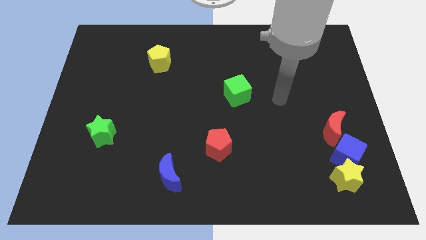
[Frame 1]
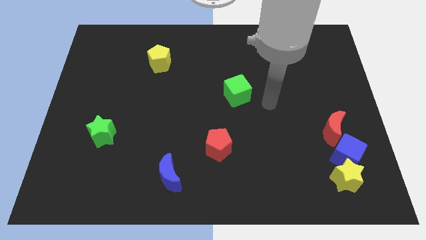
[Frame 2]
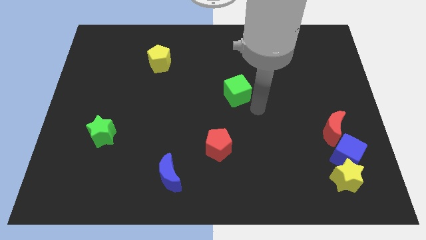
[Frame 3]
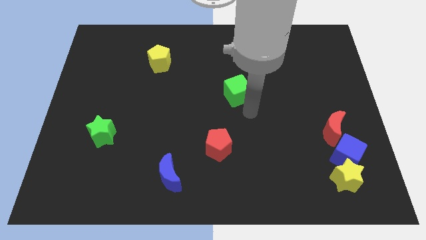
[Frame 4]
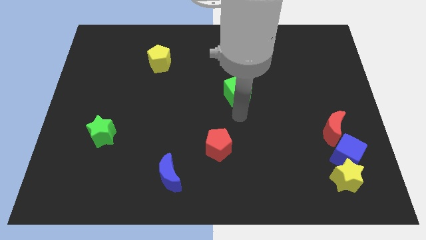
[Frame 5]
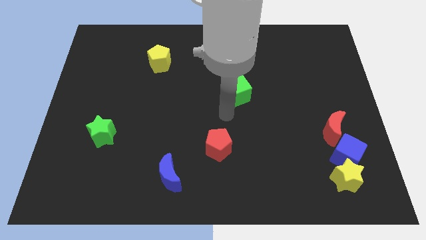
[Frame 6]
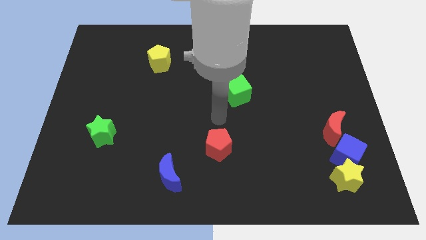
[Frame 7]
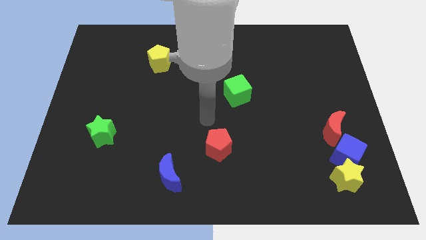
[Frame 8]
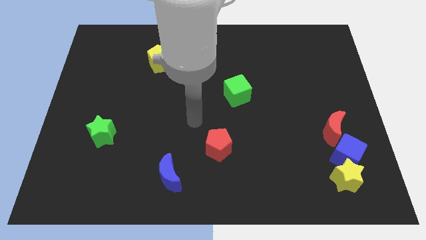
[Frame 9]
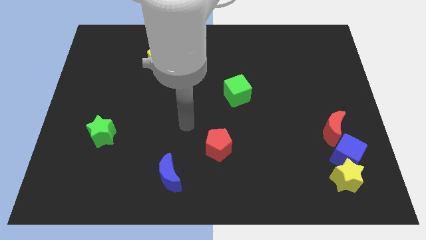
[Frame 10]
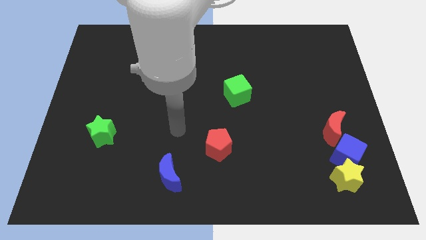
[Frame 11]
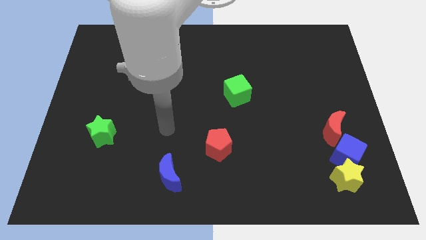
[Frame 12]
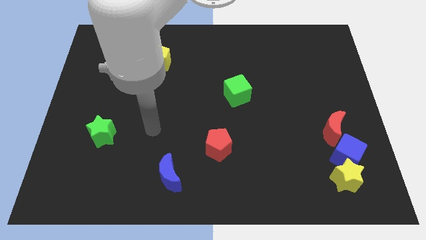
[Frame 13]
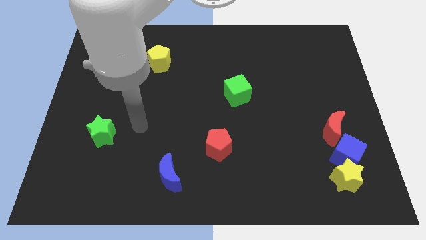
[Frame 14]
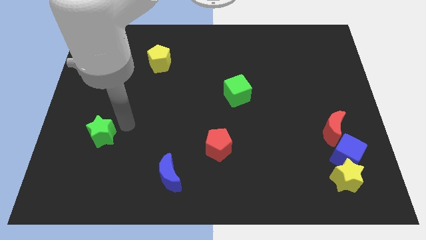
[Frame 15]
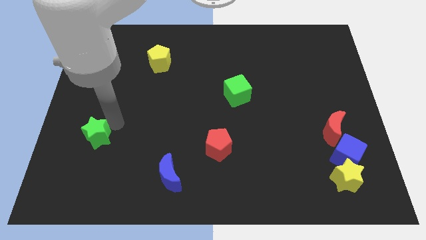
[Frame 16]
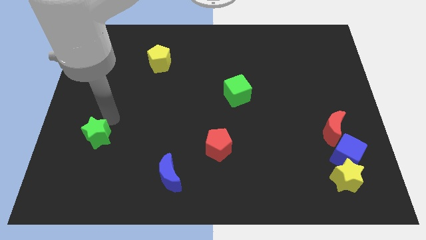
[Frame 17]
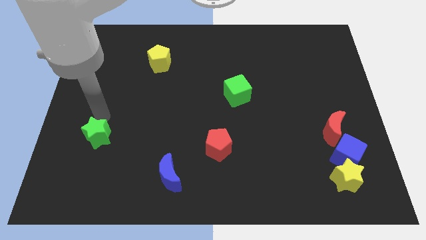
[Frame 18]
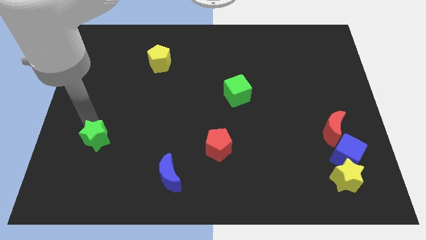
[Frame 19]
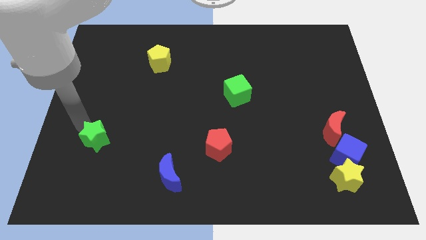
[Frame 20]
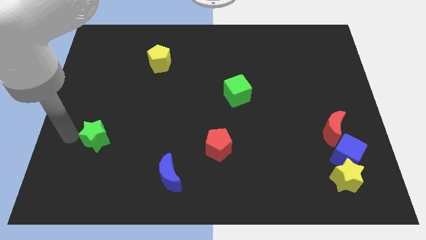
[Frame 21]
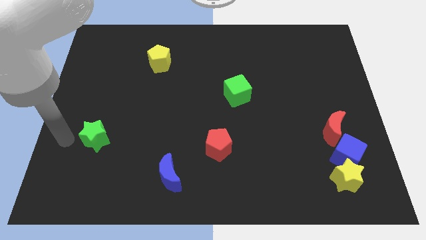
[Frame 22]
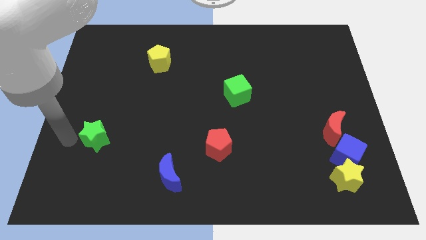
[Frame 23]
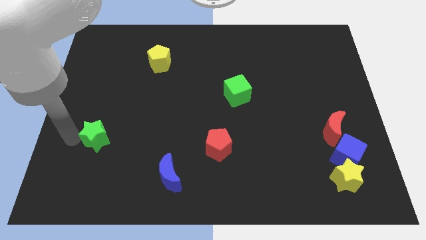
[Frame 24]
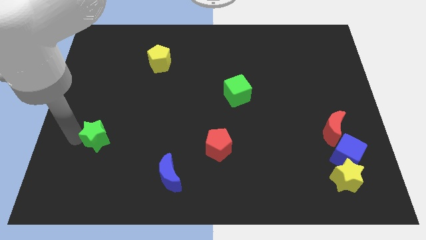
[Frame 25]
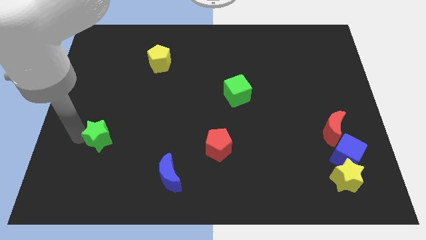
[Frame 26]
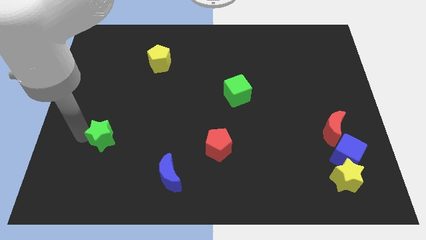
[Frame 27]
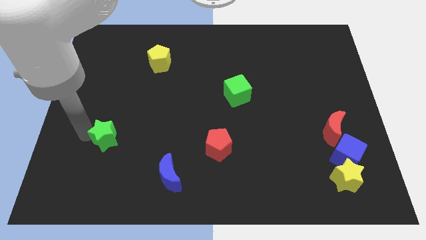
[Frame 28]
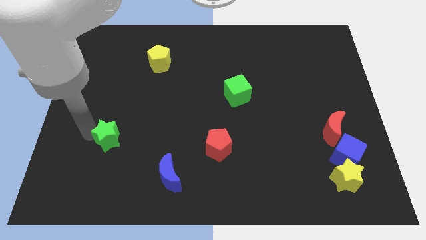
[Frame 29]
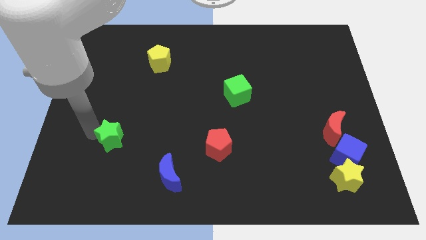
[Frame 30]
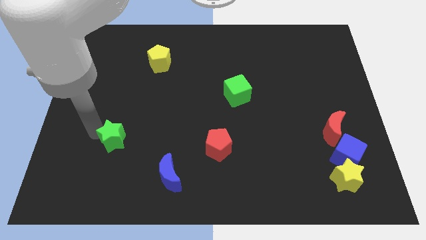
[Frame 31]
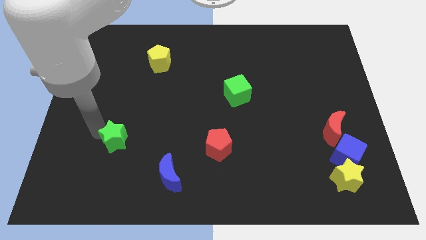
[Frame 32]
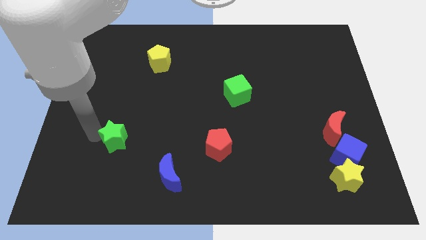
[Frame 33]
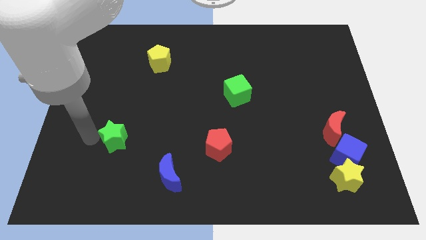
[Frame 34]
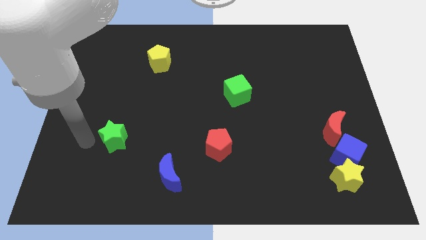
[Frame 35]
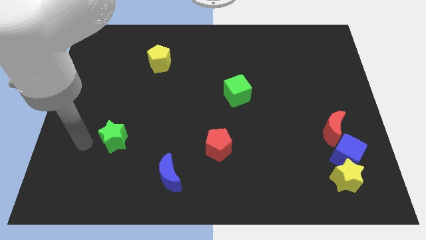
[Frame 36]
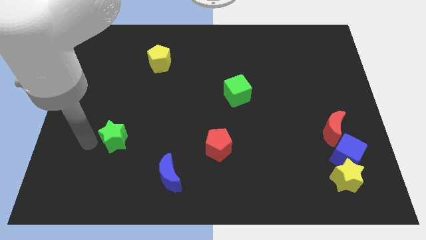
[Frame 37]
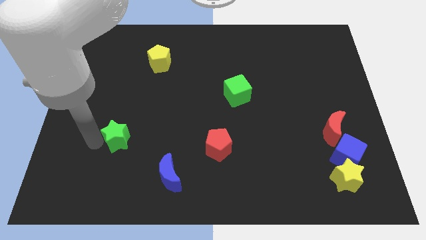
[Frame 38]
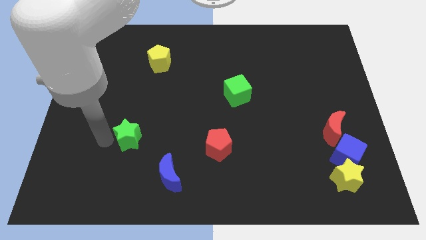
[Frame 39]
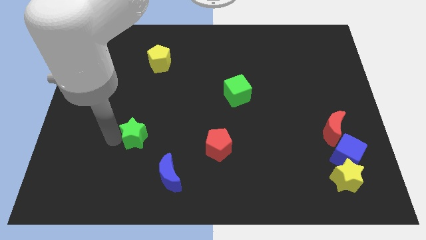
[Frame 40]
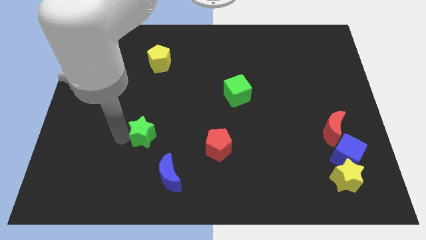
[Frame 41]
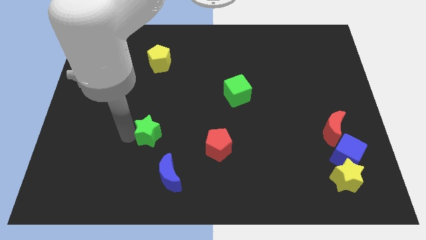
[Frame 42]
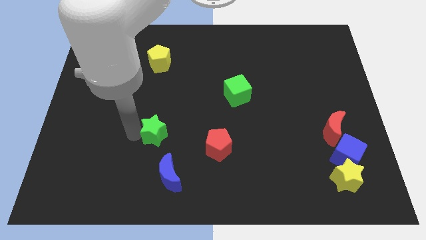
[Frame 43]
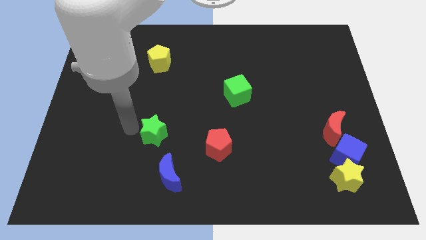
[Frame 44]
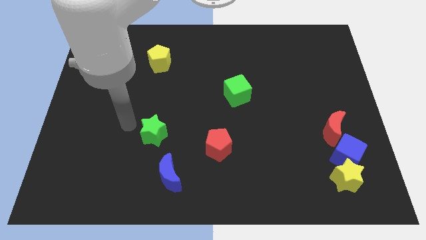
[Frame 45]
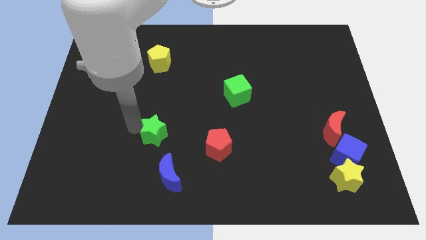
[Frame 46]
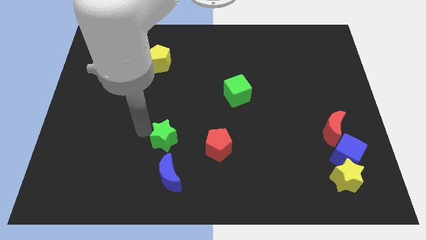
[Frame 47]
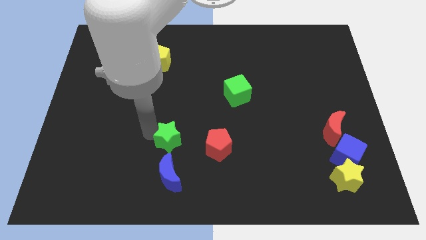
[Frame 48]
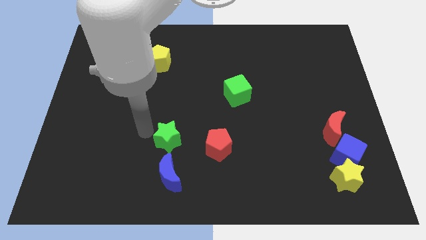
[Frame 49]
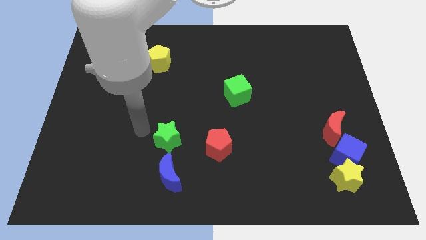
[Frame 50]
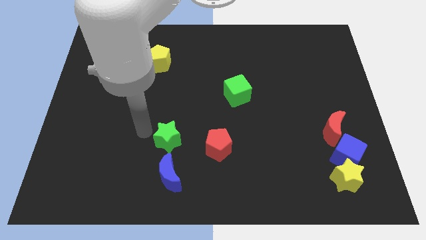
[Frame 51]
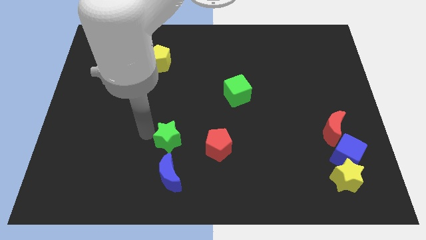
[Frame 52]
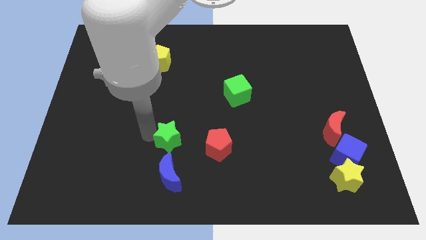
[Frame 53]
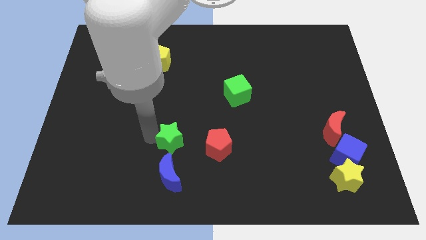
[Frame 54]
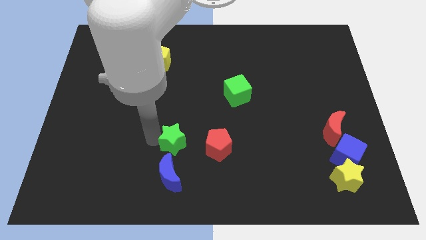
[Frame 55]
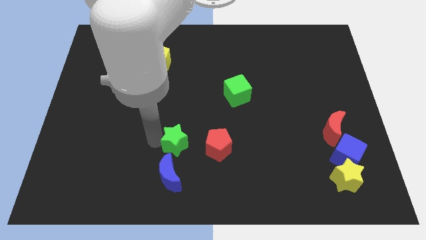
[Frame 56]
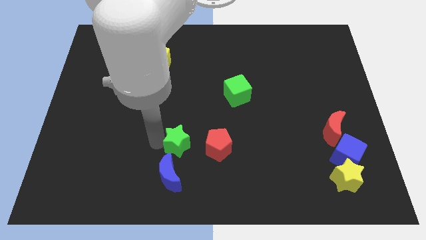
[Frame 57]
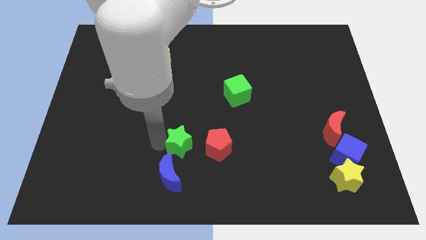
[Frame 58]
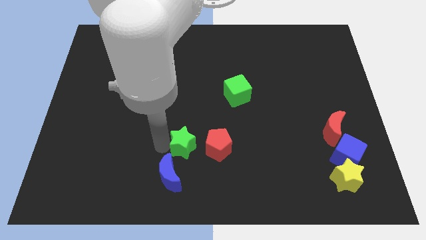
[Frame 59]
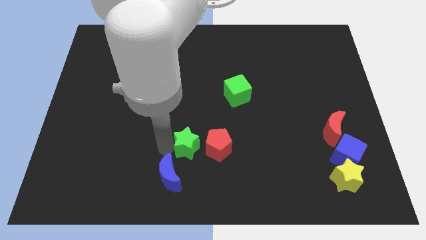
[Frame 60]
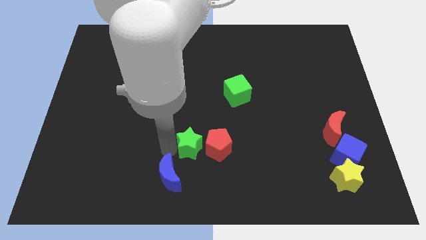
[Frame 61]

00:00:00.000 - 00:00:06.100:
slide the green star to the red pentagon

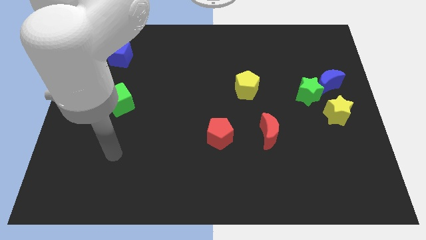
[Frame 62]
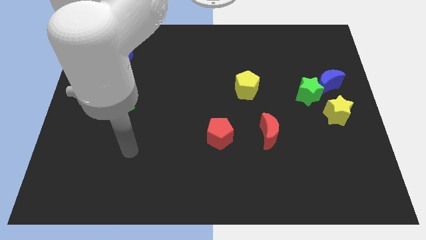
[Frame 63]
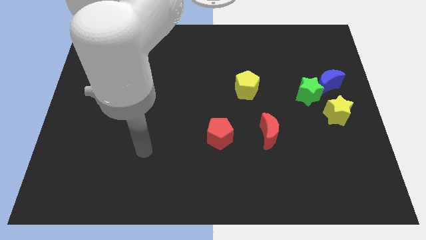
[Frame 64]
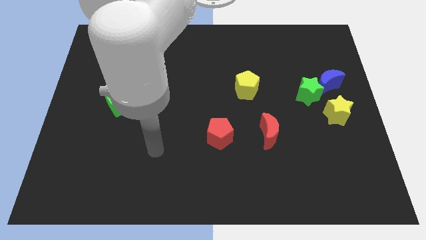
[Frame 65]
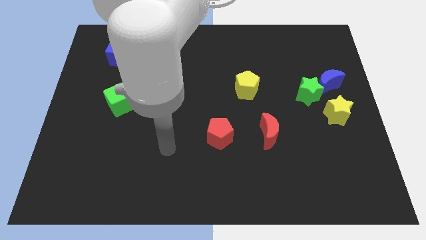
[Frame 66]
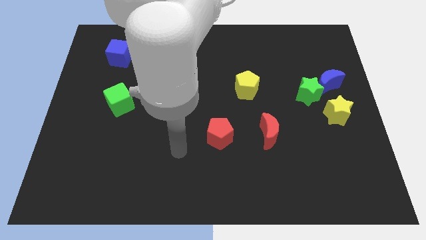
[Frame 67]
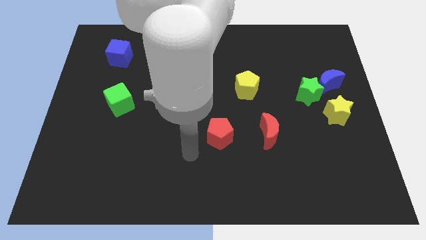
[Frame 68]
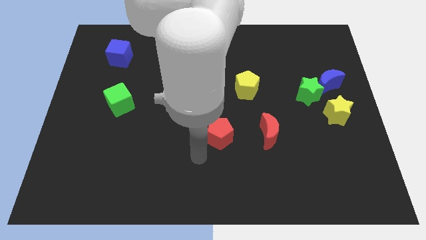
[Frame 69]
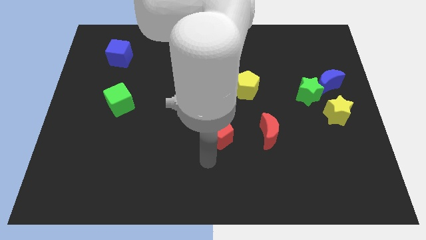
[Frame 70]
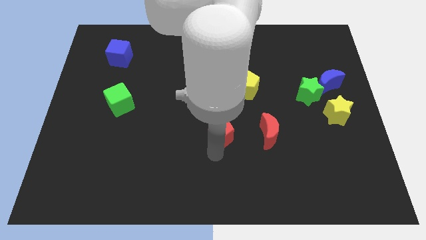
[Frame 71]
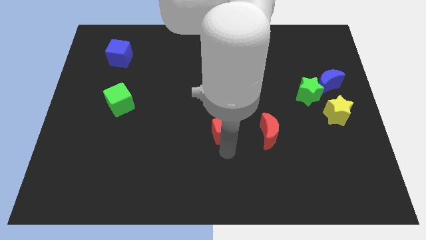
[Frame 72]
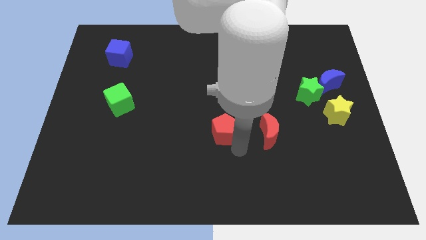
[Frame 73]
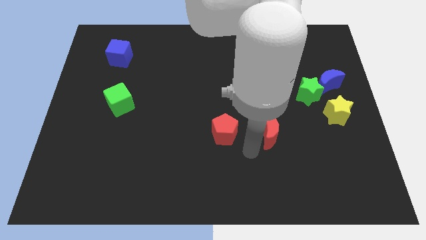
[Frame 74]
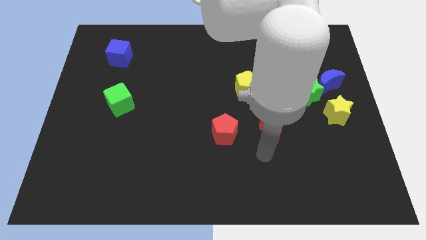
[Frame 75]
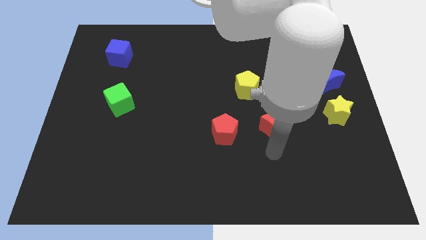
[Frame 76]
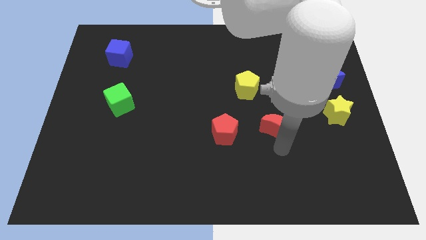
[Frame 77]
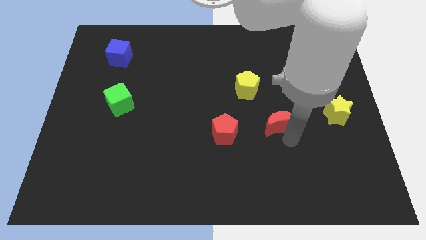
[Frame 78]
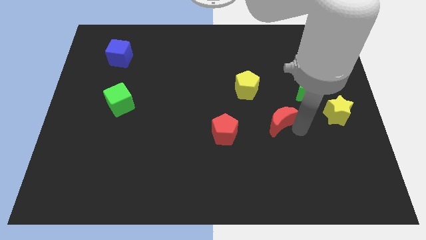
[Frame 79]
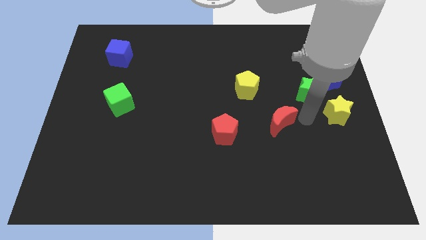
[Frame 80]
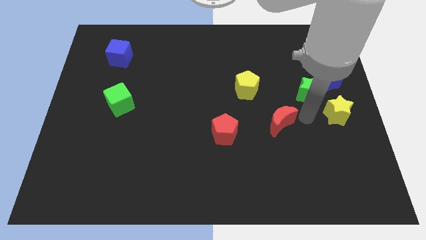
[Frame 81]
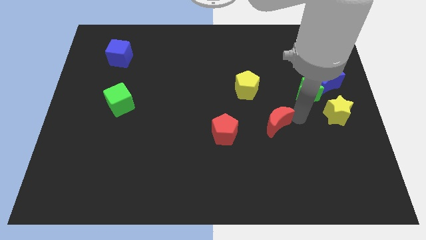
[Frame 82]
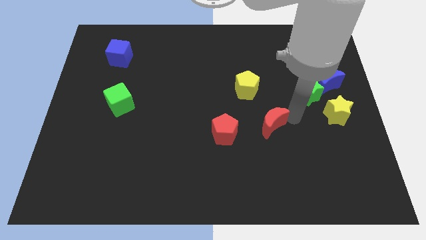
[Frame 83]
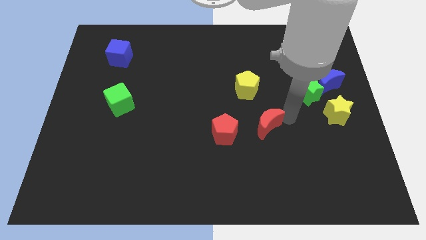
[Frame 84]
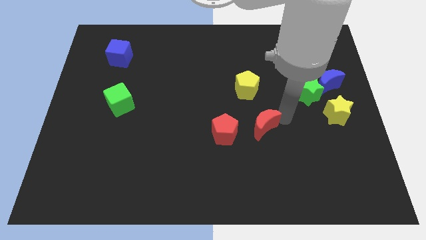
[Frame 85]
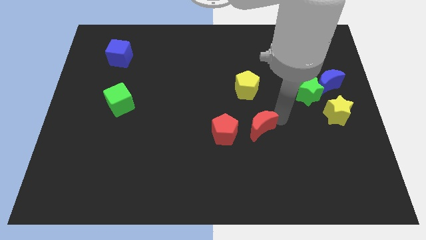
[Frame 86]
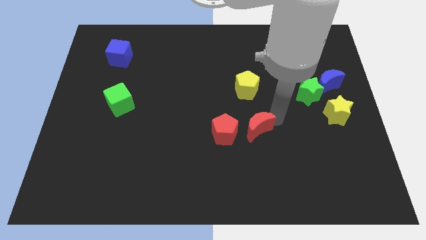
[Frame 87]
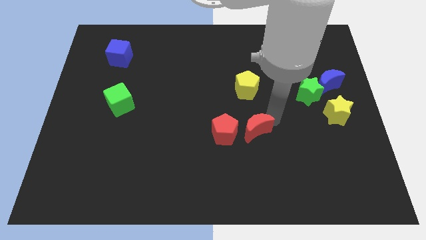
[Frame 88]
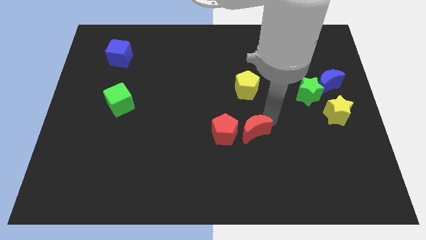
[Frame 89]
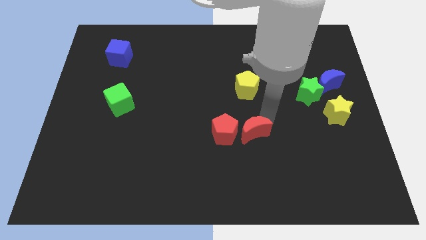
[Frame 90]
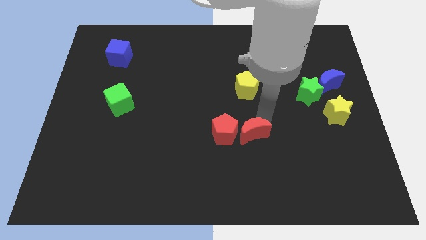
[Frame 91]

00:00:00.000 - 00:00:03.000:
slide the red moon close to the red pentagon
